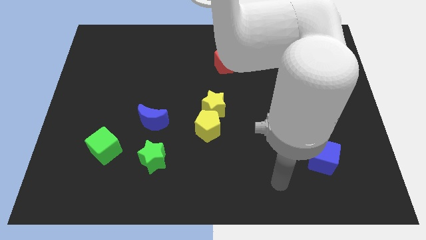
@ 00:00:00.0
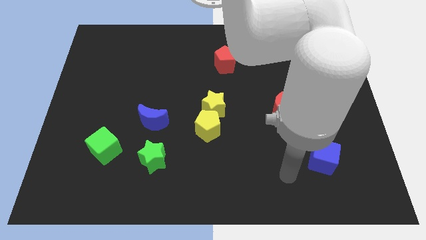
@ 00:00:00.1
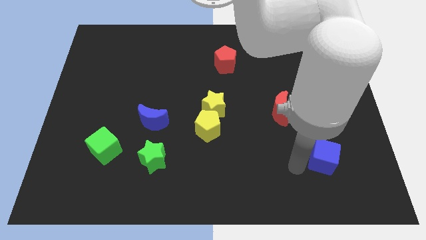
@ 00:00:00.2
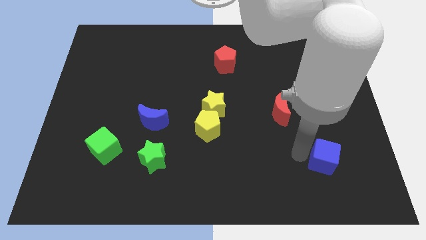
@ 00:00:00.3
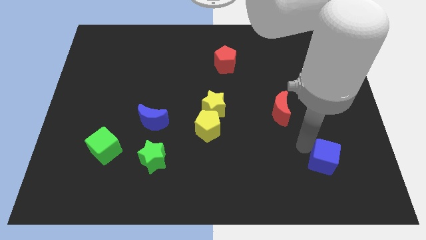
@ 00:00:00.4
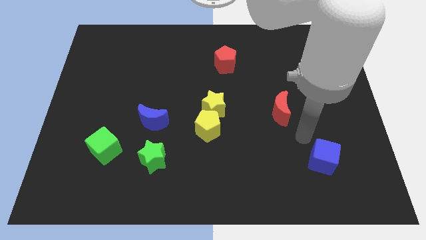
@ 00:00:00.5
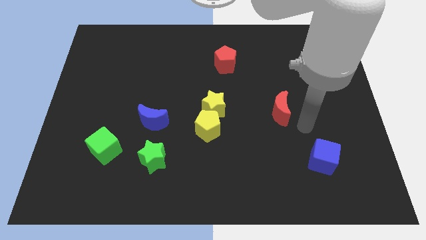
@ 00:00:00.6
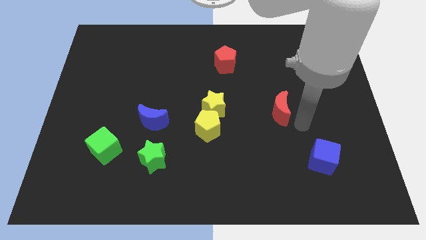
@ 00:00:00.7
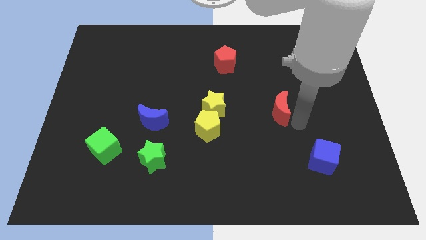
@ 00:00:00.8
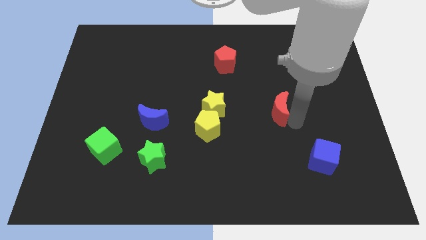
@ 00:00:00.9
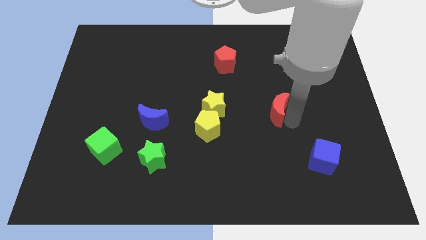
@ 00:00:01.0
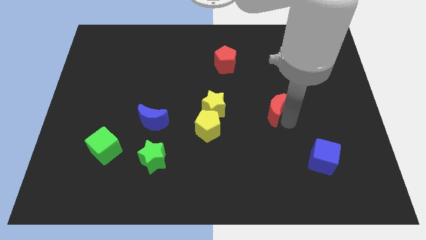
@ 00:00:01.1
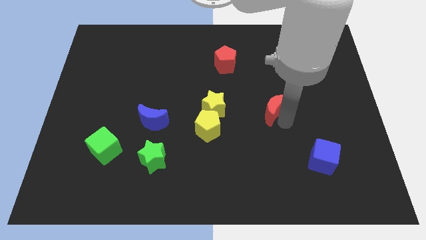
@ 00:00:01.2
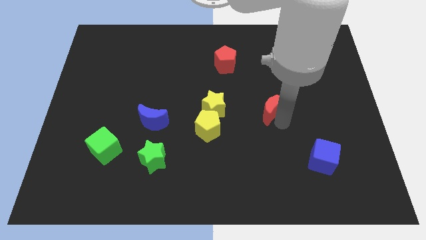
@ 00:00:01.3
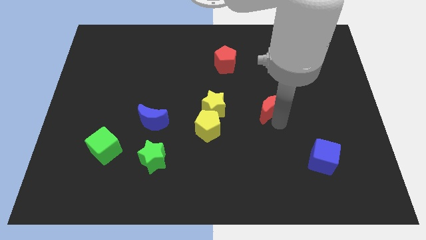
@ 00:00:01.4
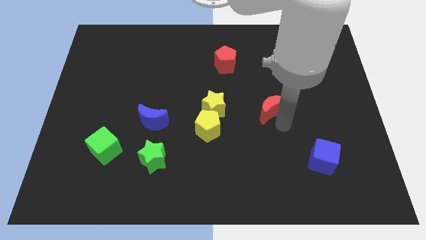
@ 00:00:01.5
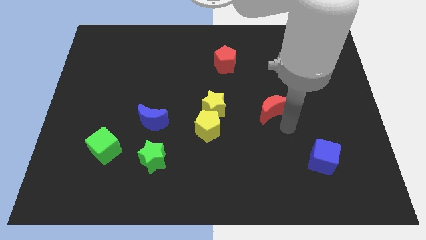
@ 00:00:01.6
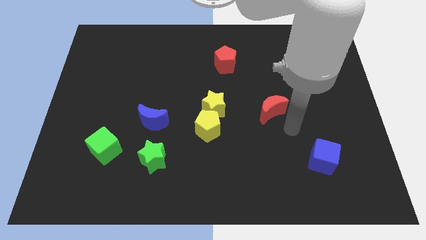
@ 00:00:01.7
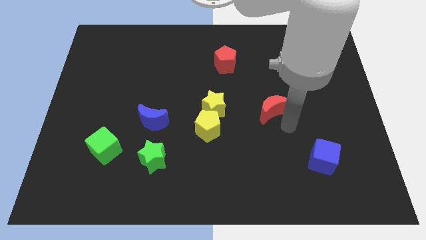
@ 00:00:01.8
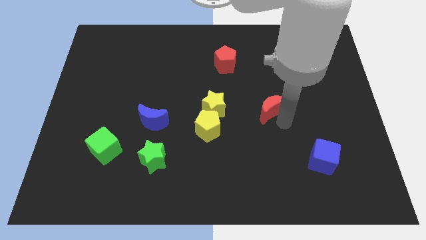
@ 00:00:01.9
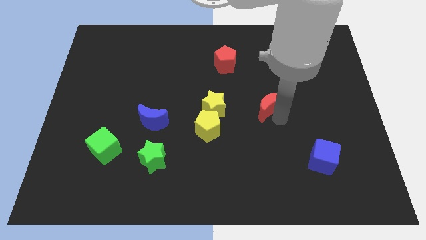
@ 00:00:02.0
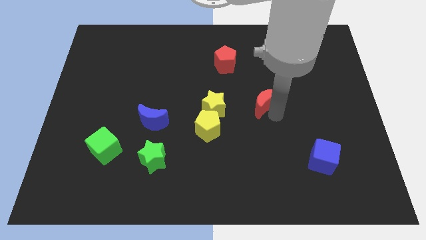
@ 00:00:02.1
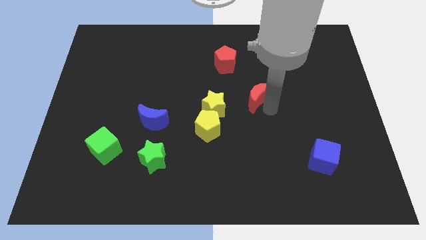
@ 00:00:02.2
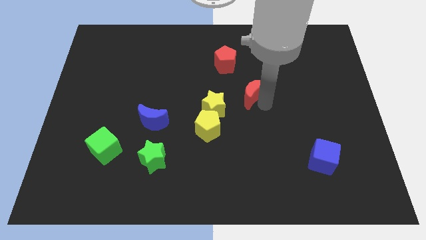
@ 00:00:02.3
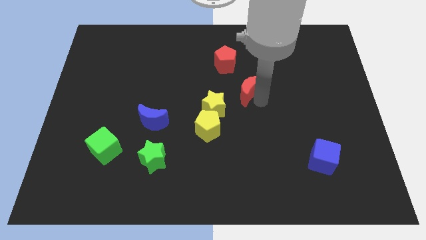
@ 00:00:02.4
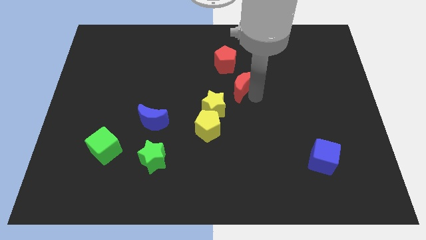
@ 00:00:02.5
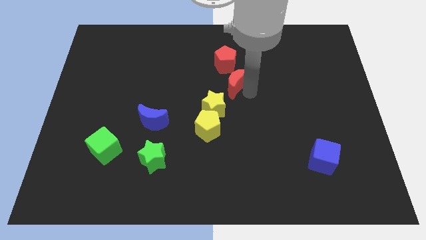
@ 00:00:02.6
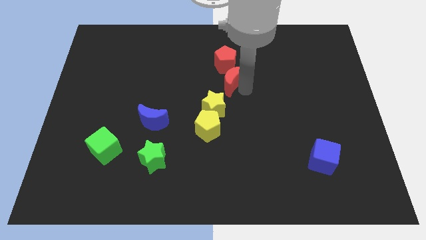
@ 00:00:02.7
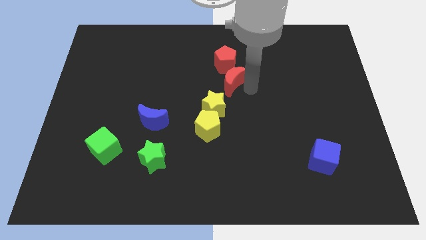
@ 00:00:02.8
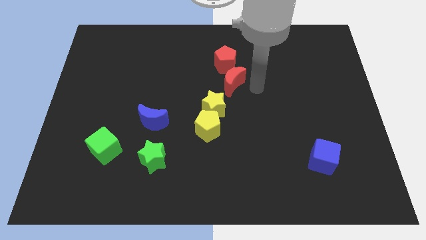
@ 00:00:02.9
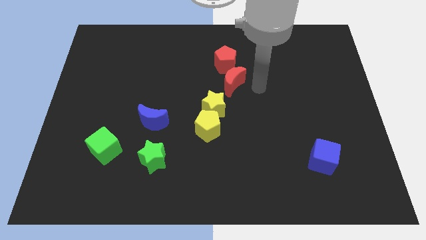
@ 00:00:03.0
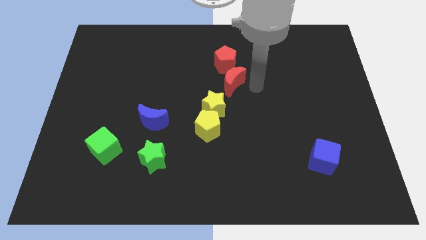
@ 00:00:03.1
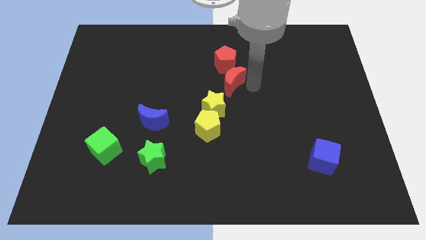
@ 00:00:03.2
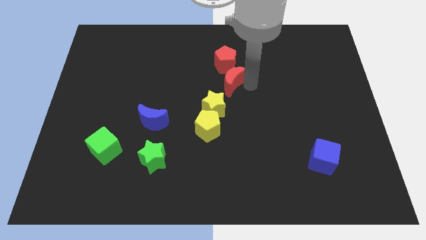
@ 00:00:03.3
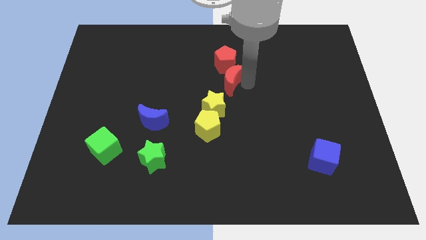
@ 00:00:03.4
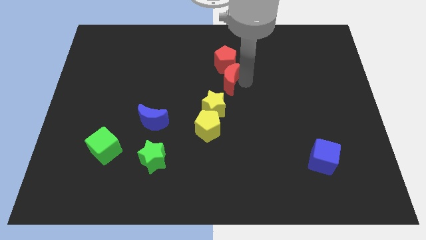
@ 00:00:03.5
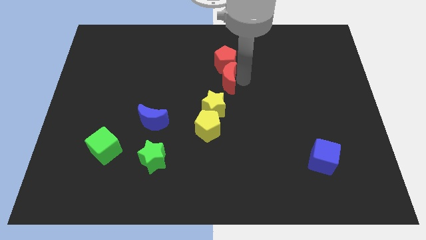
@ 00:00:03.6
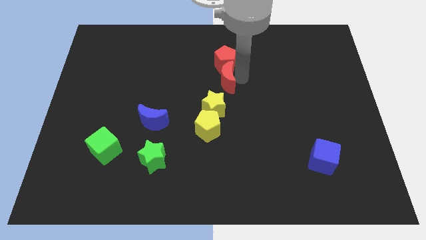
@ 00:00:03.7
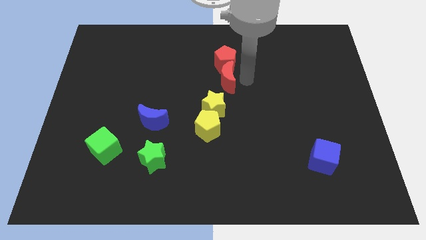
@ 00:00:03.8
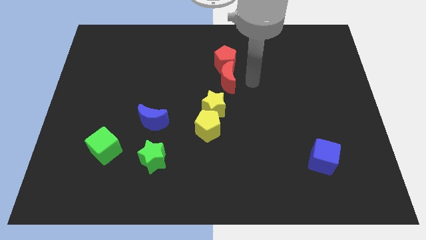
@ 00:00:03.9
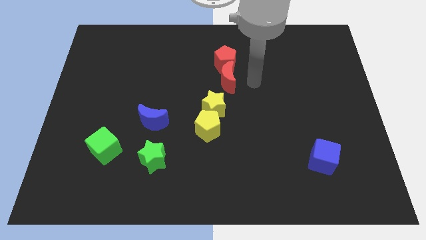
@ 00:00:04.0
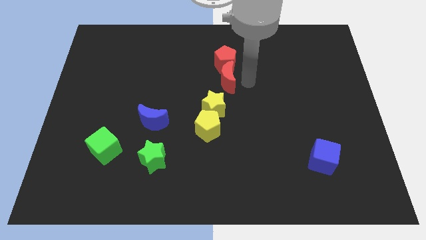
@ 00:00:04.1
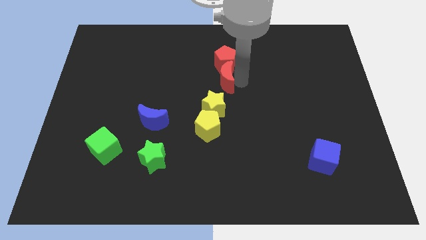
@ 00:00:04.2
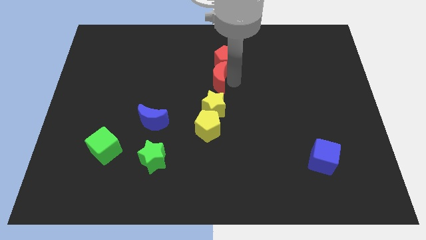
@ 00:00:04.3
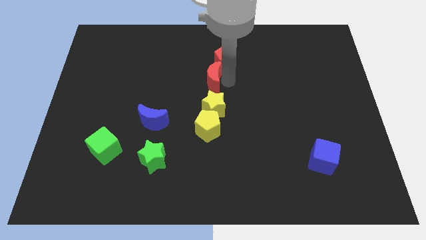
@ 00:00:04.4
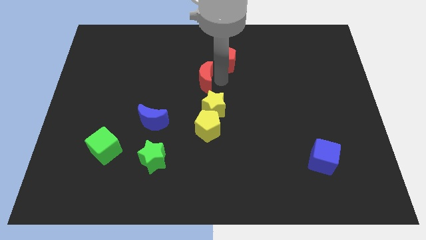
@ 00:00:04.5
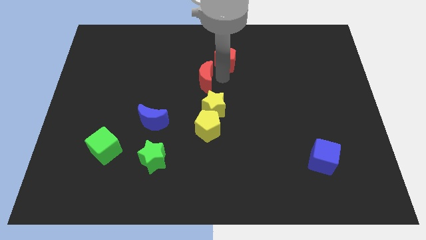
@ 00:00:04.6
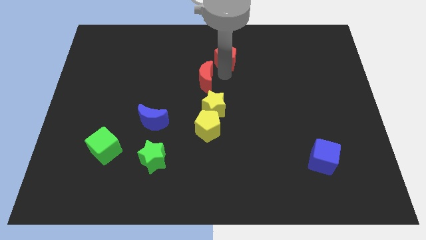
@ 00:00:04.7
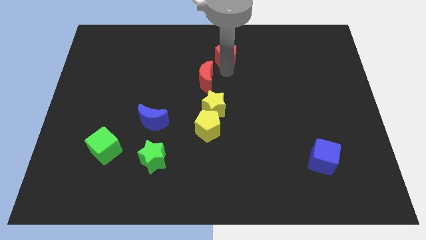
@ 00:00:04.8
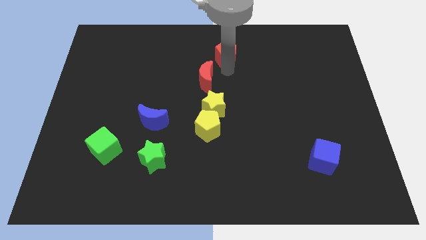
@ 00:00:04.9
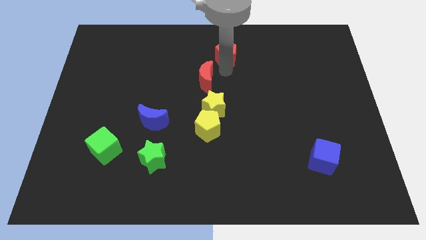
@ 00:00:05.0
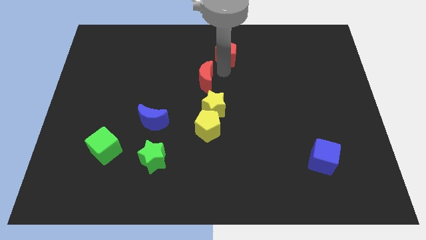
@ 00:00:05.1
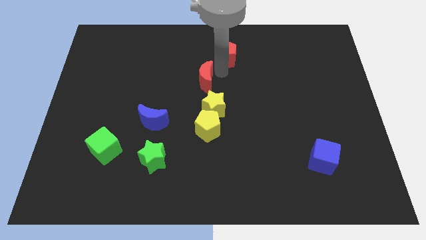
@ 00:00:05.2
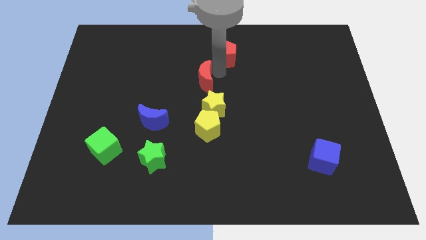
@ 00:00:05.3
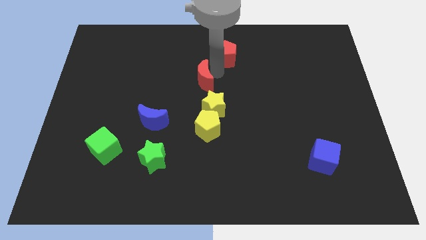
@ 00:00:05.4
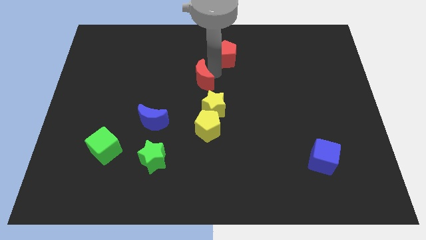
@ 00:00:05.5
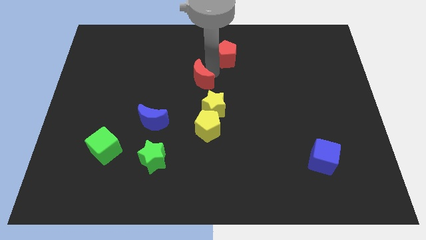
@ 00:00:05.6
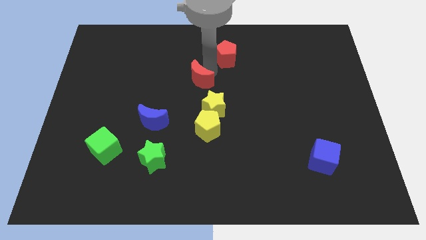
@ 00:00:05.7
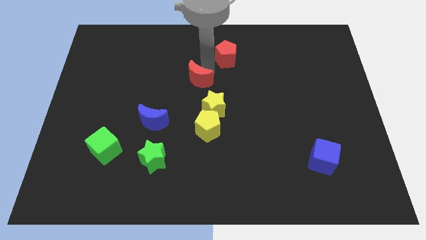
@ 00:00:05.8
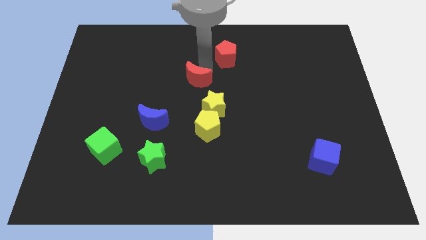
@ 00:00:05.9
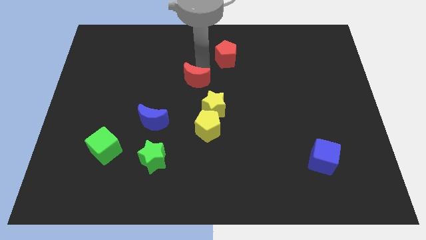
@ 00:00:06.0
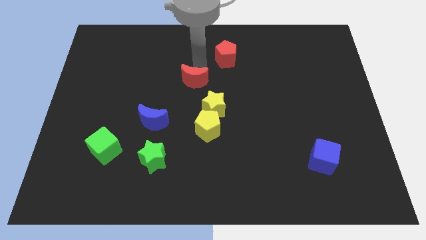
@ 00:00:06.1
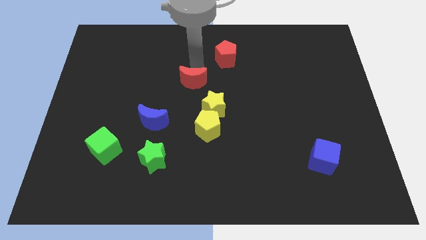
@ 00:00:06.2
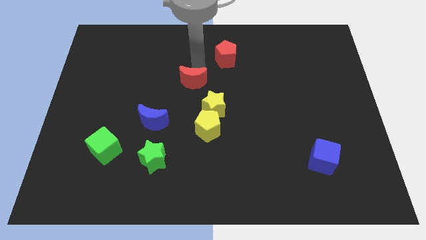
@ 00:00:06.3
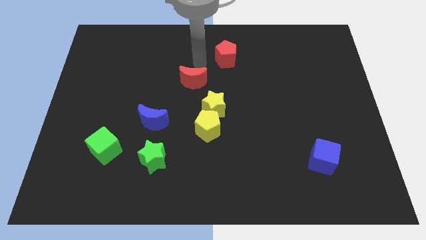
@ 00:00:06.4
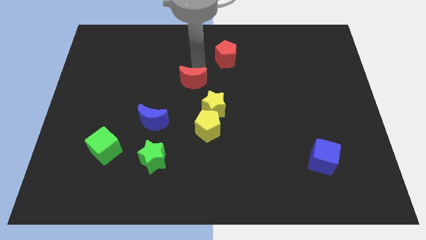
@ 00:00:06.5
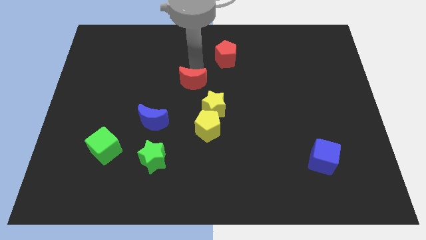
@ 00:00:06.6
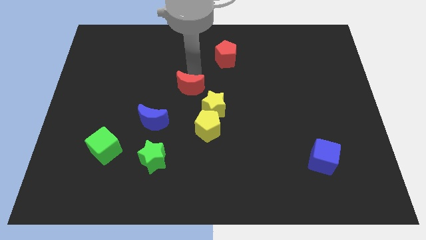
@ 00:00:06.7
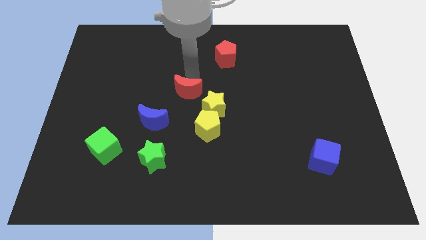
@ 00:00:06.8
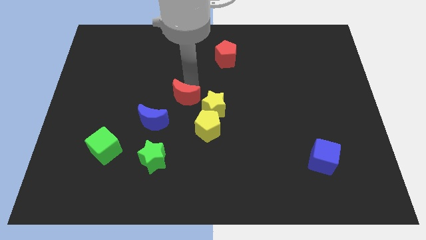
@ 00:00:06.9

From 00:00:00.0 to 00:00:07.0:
put the red moon to the left side of the yellow star

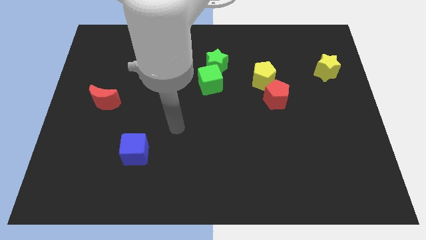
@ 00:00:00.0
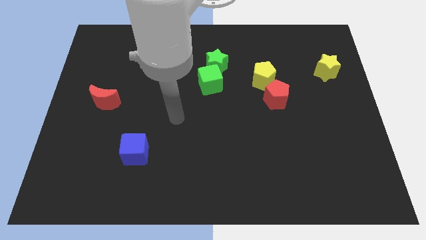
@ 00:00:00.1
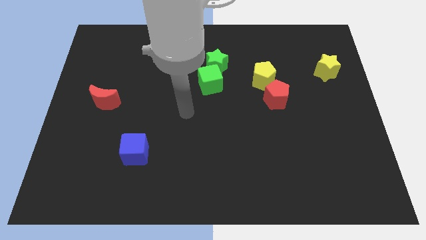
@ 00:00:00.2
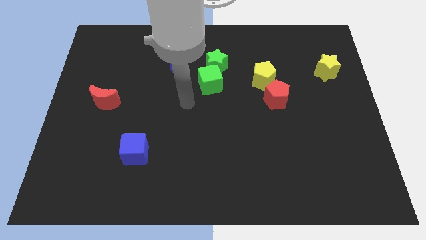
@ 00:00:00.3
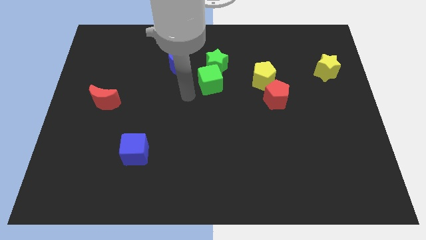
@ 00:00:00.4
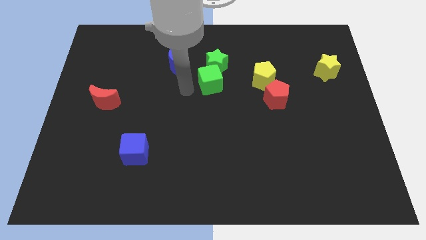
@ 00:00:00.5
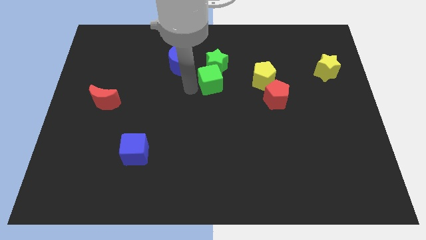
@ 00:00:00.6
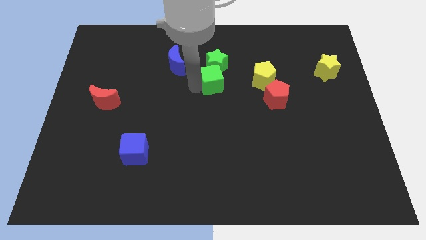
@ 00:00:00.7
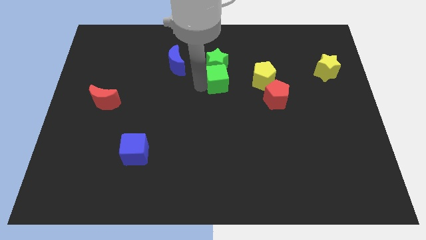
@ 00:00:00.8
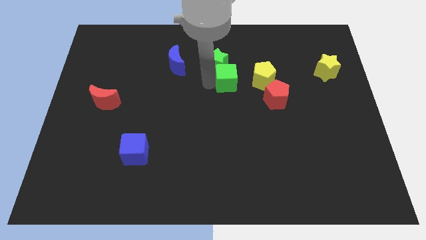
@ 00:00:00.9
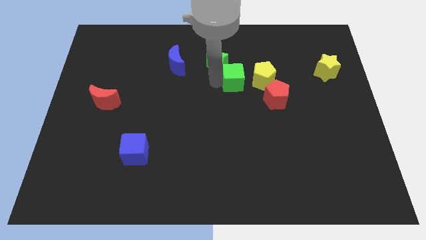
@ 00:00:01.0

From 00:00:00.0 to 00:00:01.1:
move the green cube diagonally up and to the left of the red pentagon
